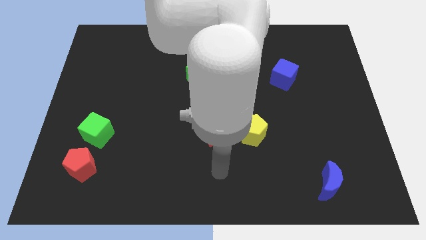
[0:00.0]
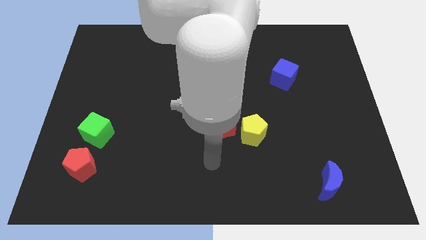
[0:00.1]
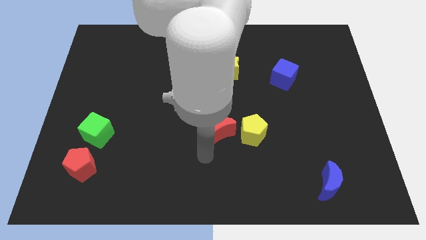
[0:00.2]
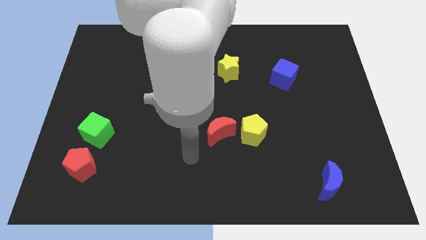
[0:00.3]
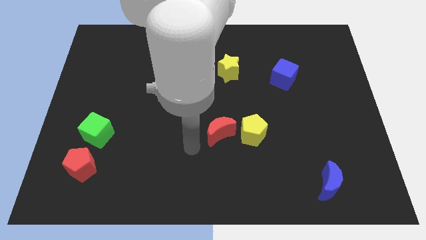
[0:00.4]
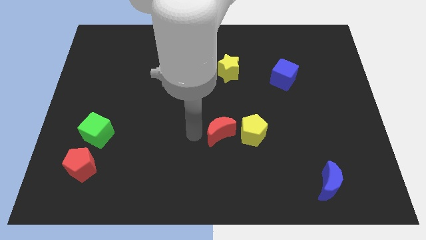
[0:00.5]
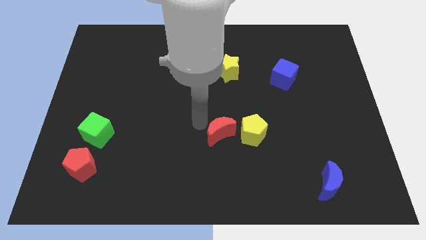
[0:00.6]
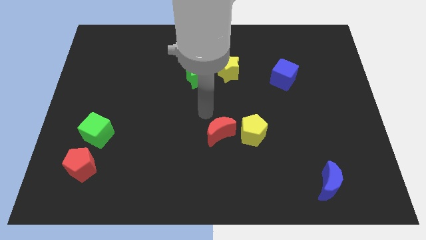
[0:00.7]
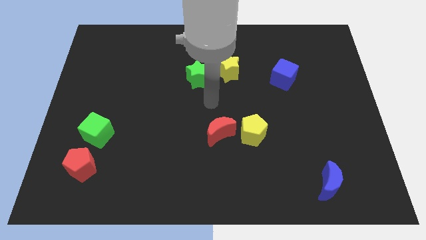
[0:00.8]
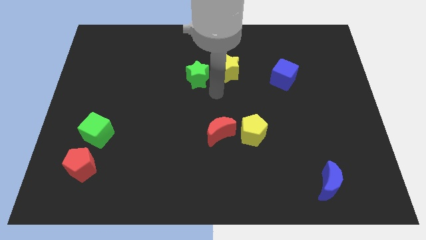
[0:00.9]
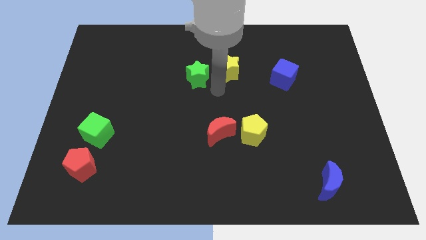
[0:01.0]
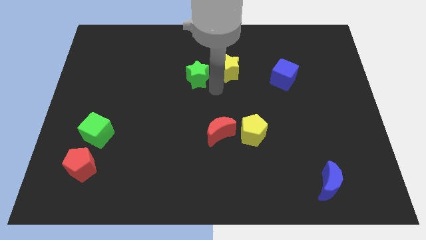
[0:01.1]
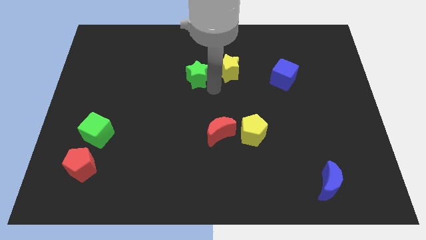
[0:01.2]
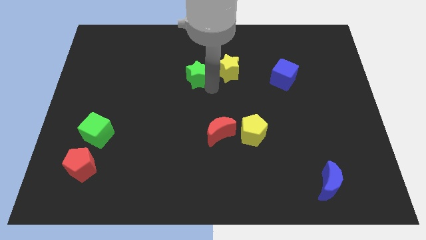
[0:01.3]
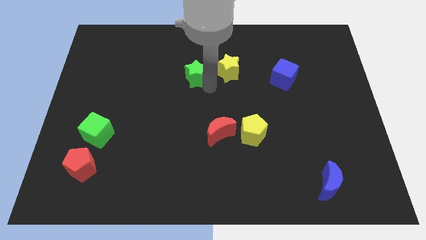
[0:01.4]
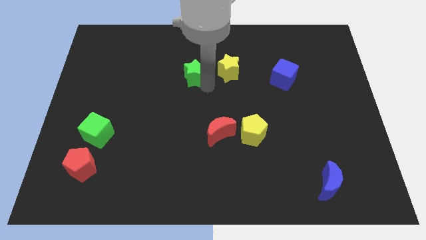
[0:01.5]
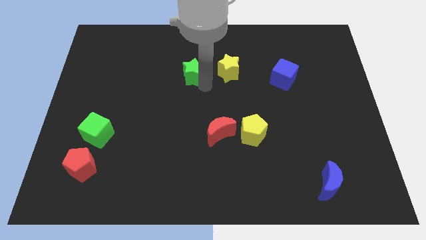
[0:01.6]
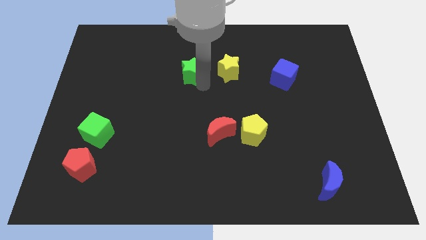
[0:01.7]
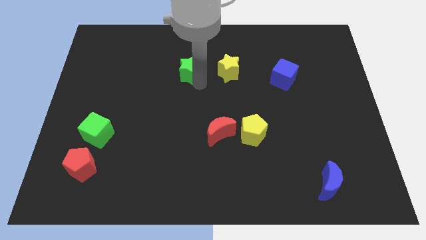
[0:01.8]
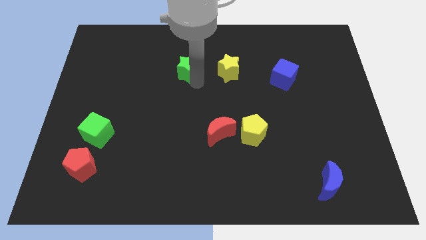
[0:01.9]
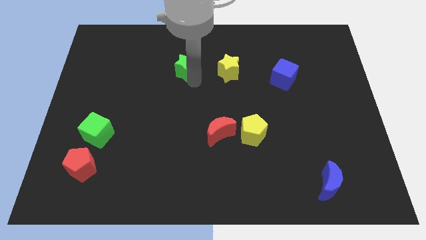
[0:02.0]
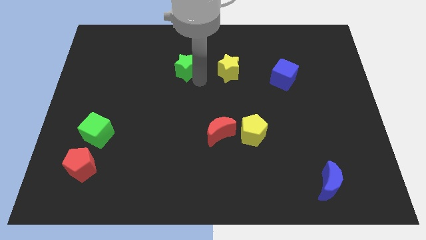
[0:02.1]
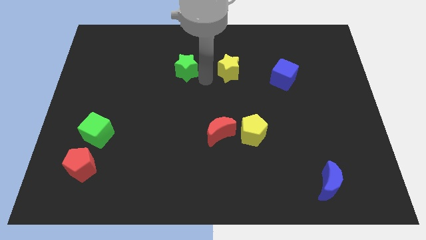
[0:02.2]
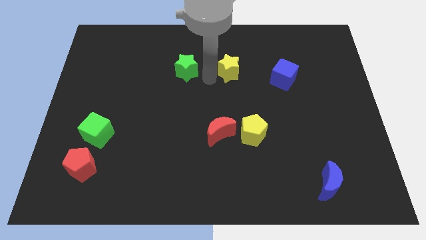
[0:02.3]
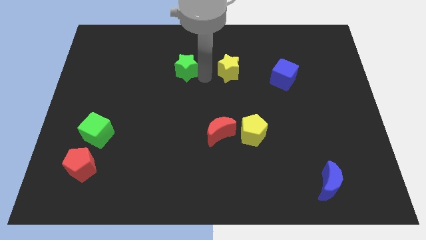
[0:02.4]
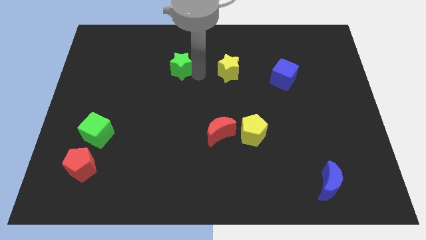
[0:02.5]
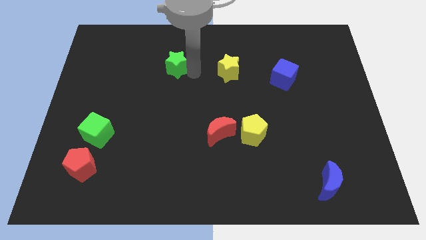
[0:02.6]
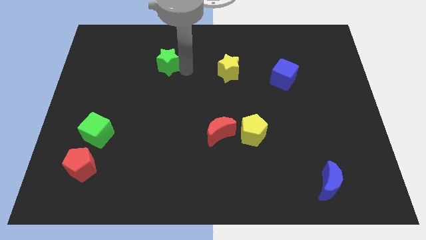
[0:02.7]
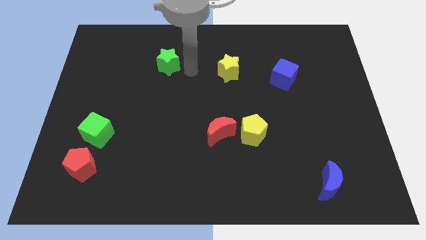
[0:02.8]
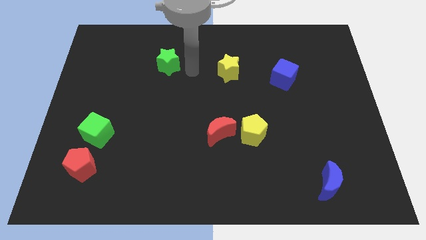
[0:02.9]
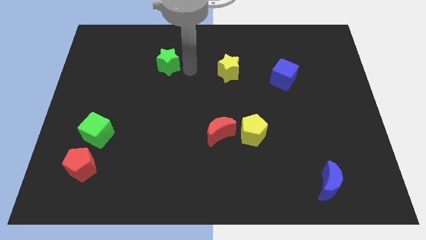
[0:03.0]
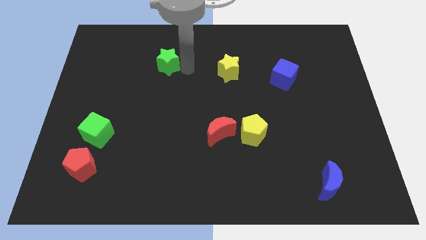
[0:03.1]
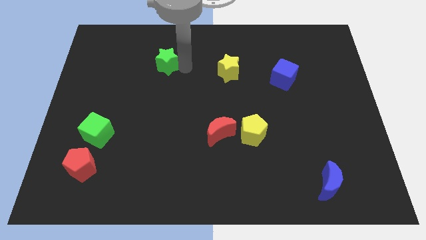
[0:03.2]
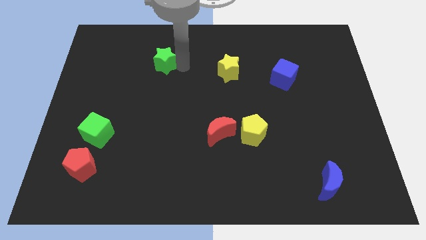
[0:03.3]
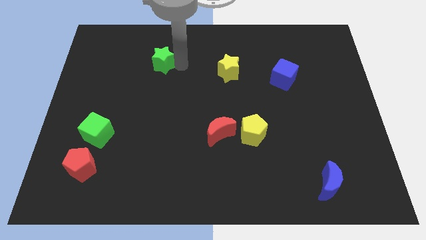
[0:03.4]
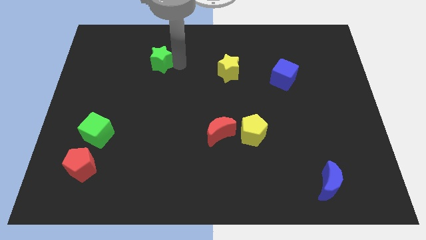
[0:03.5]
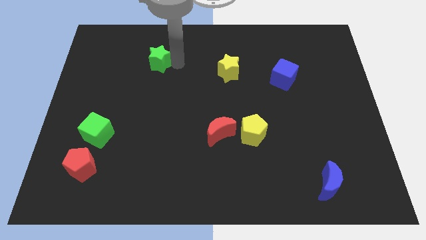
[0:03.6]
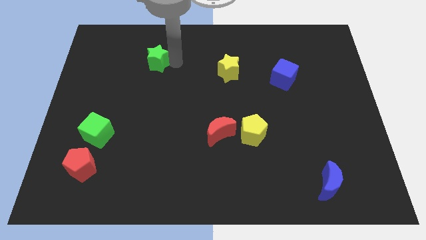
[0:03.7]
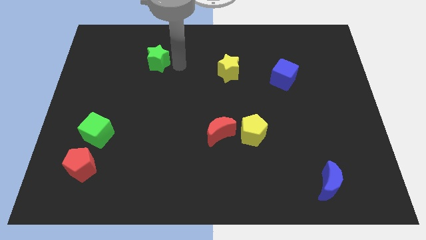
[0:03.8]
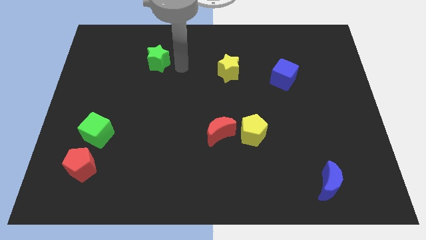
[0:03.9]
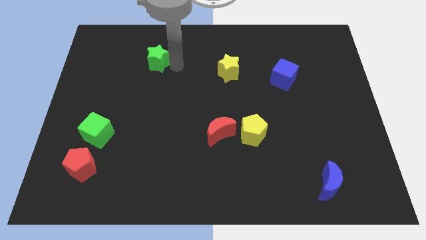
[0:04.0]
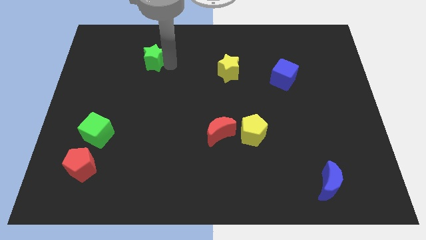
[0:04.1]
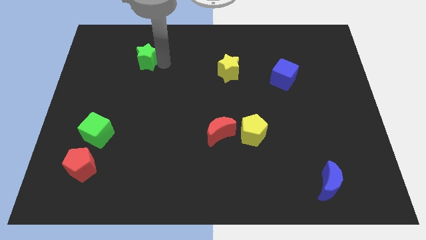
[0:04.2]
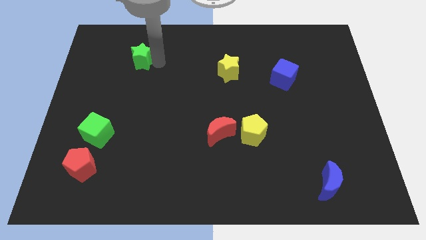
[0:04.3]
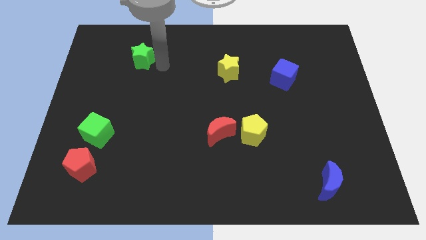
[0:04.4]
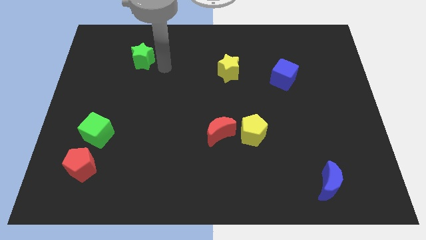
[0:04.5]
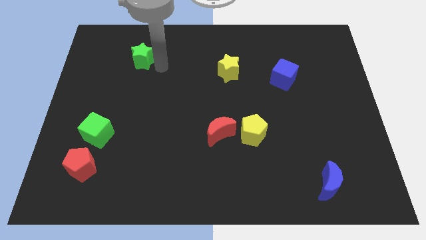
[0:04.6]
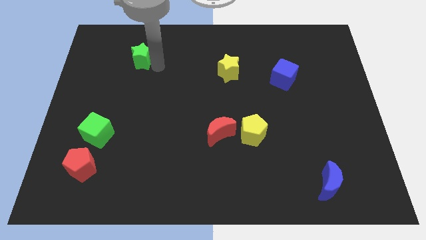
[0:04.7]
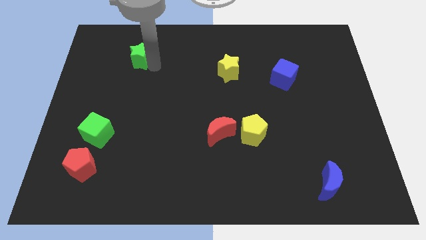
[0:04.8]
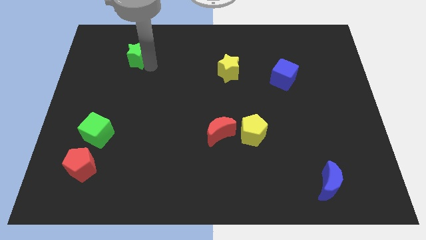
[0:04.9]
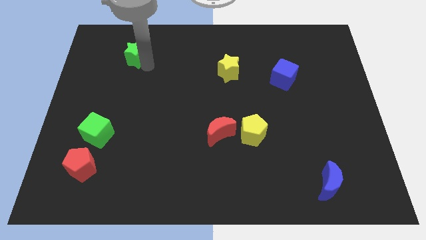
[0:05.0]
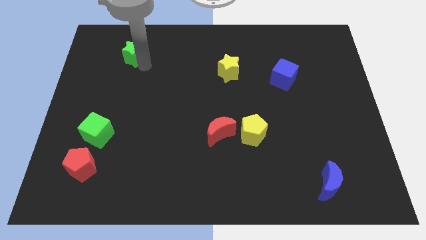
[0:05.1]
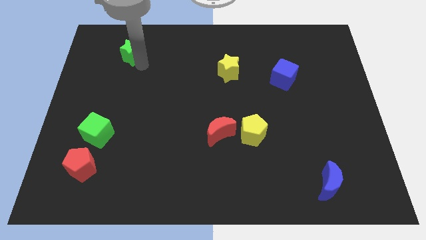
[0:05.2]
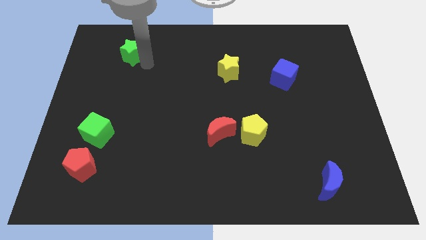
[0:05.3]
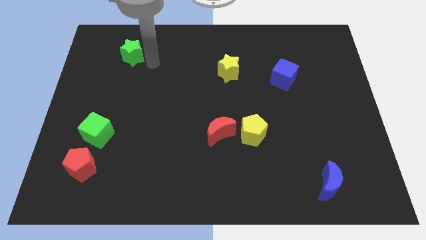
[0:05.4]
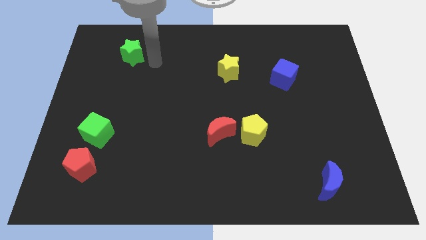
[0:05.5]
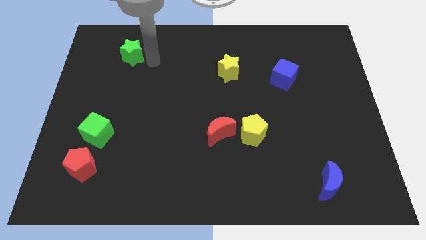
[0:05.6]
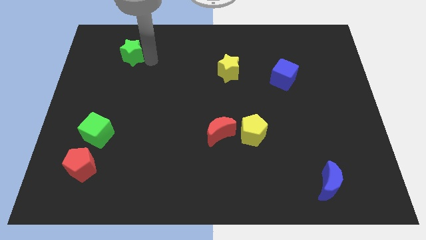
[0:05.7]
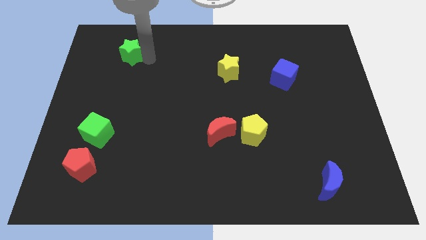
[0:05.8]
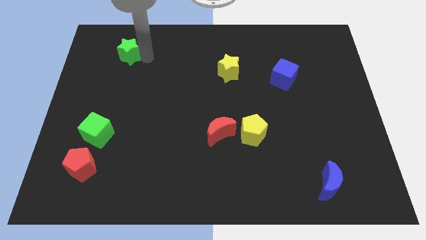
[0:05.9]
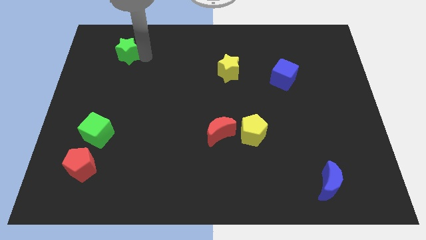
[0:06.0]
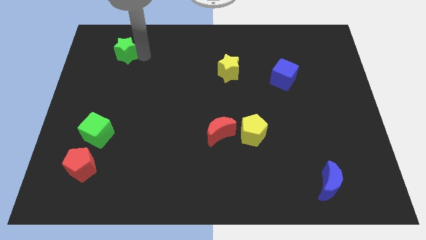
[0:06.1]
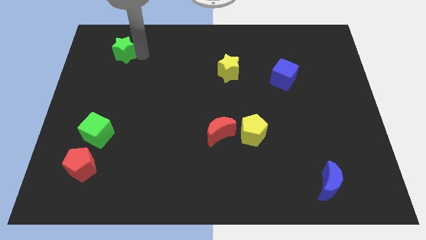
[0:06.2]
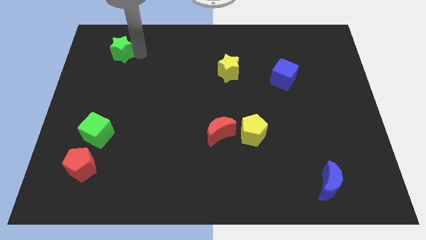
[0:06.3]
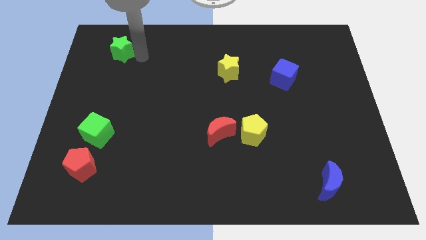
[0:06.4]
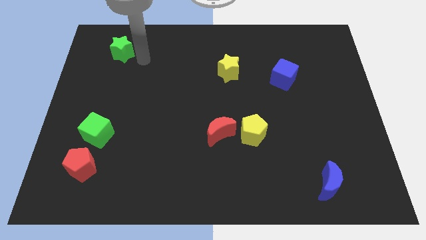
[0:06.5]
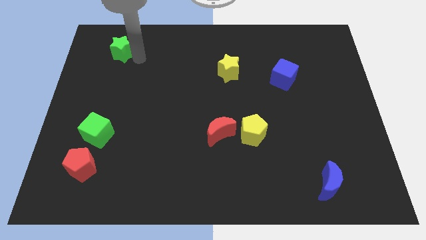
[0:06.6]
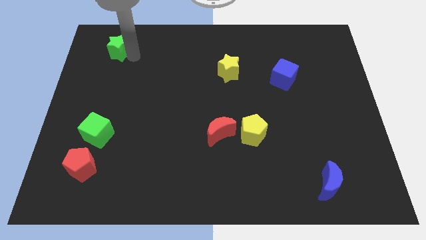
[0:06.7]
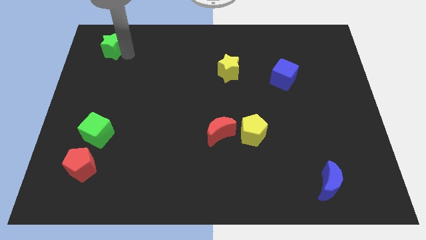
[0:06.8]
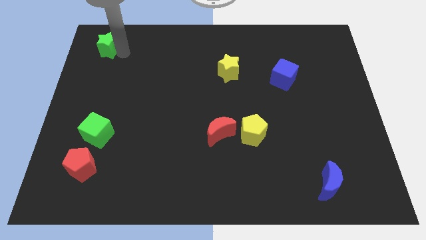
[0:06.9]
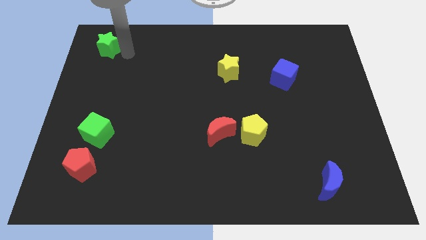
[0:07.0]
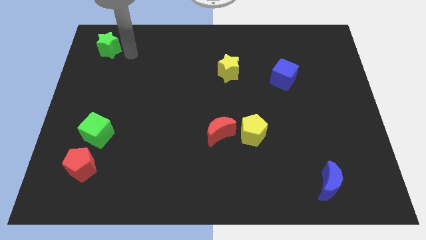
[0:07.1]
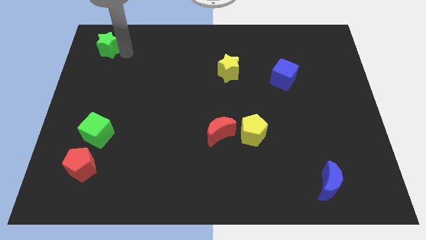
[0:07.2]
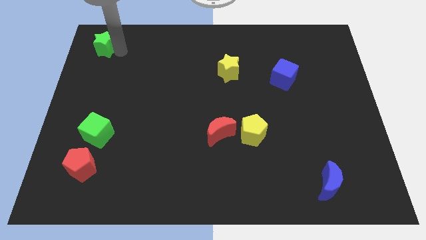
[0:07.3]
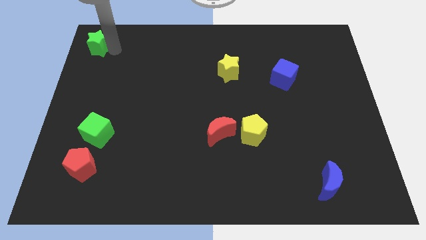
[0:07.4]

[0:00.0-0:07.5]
push the green star to the top left of the board
